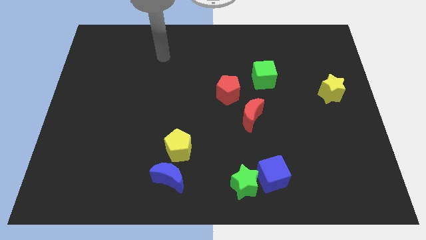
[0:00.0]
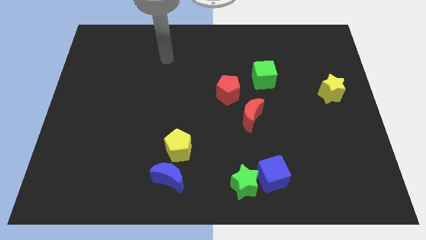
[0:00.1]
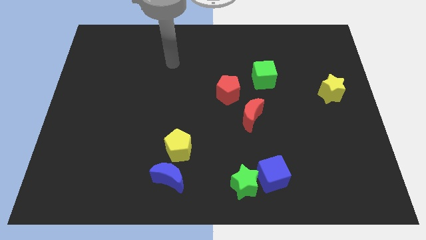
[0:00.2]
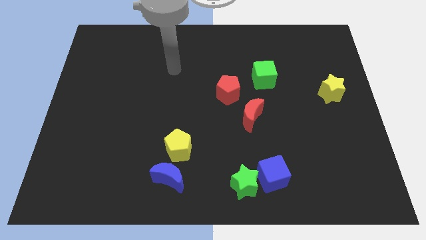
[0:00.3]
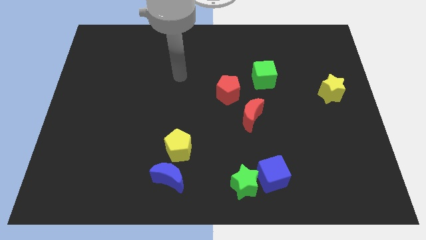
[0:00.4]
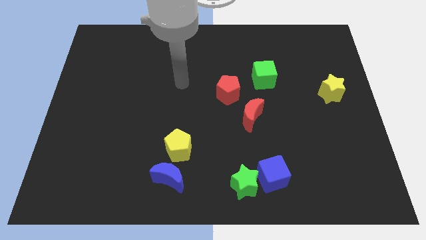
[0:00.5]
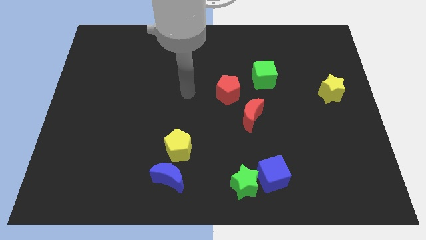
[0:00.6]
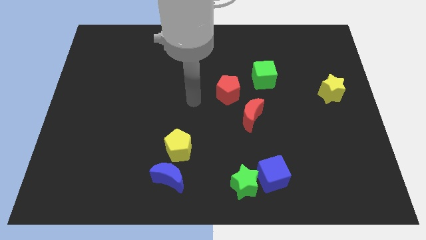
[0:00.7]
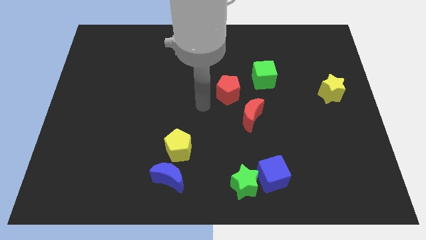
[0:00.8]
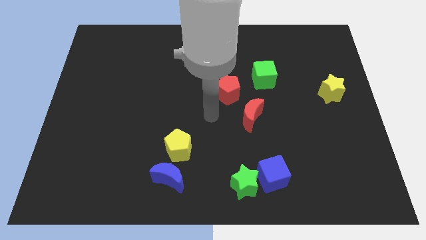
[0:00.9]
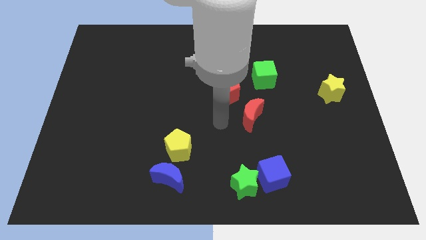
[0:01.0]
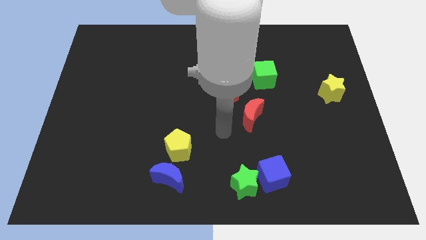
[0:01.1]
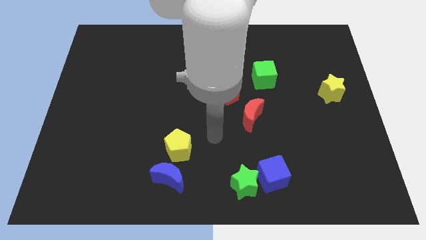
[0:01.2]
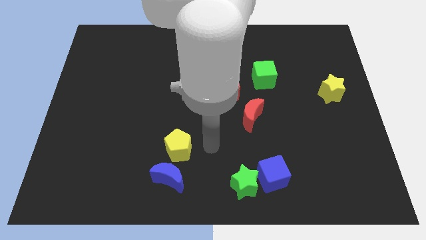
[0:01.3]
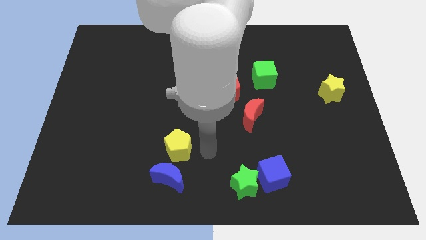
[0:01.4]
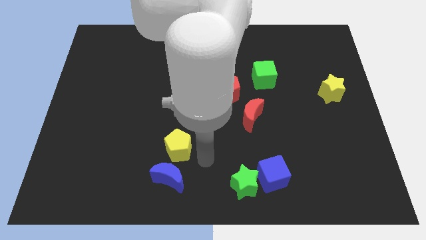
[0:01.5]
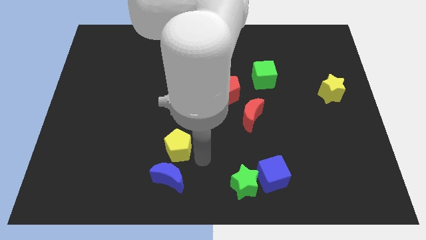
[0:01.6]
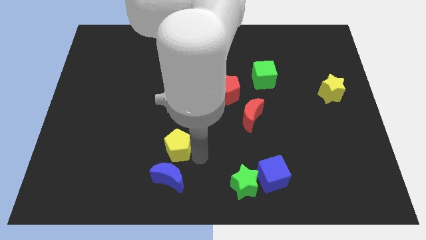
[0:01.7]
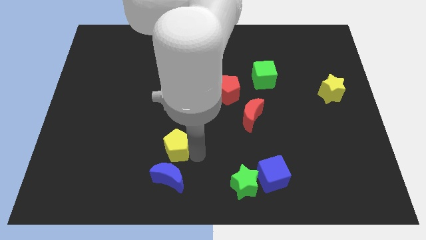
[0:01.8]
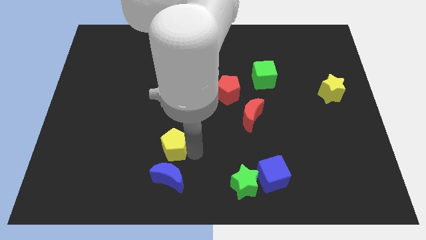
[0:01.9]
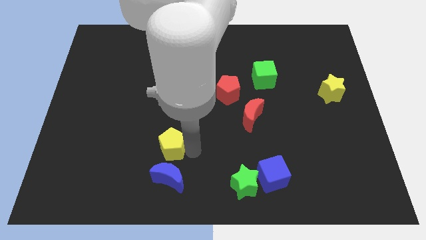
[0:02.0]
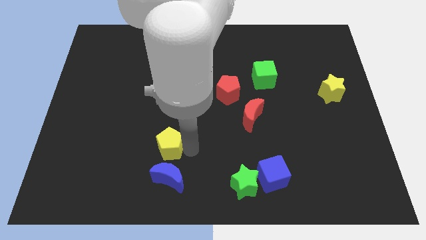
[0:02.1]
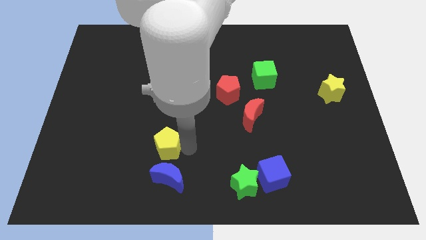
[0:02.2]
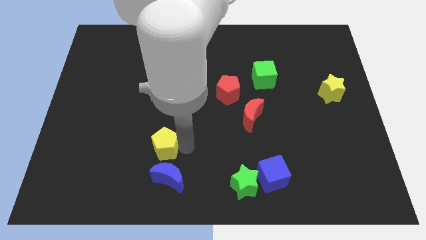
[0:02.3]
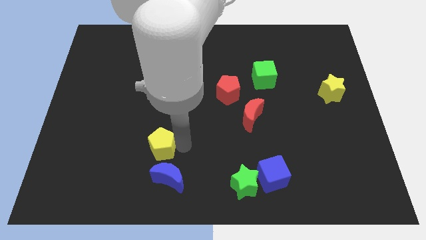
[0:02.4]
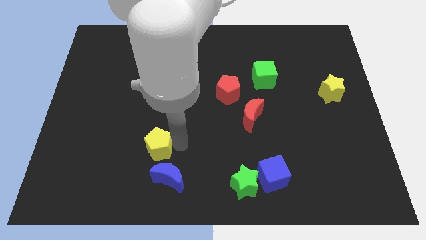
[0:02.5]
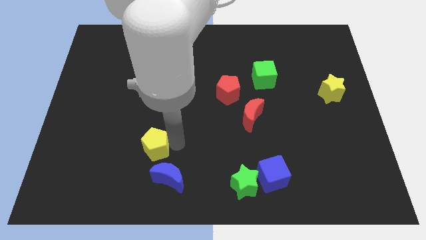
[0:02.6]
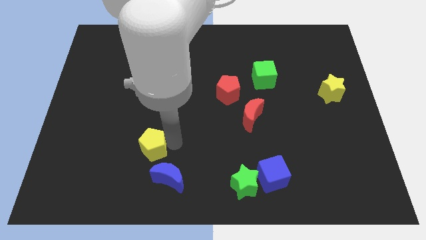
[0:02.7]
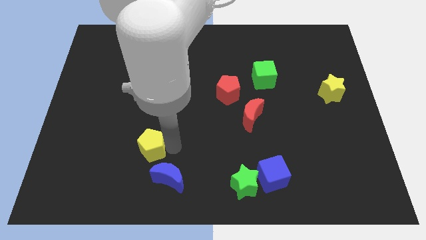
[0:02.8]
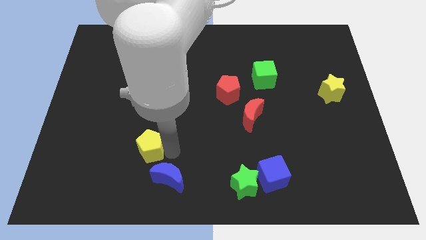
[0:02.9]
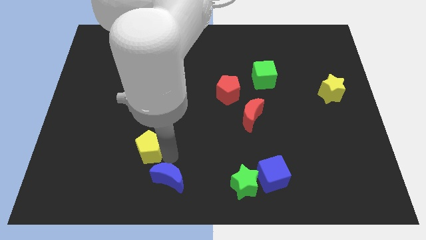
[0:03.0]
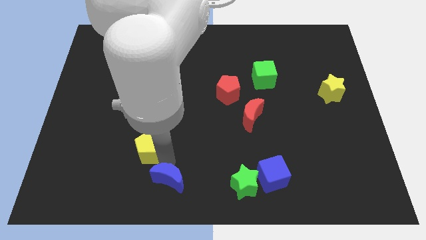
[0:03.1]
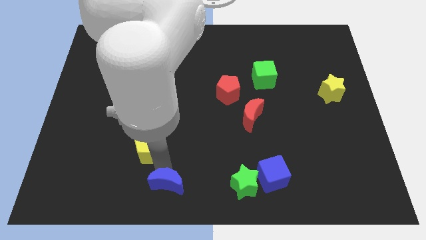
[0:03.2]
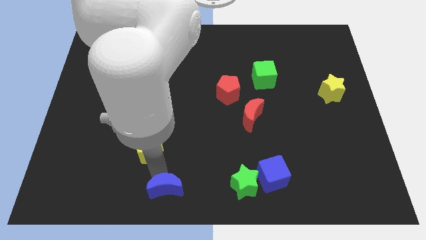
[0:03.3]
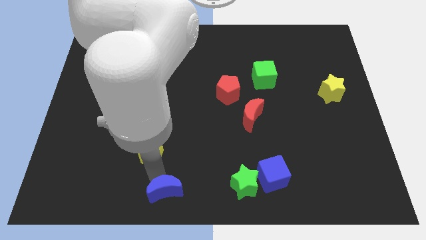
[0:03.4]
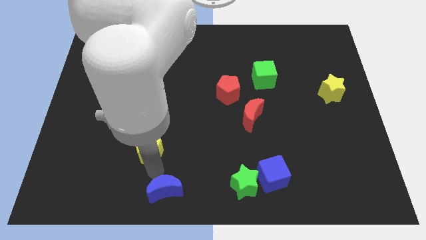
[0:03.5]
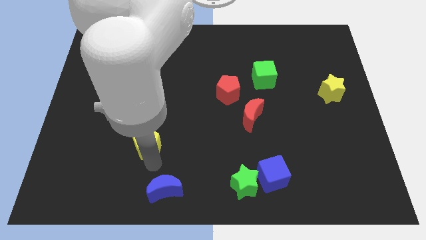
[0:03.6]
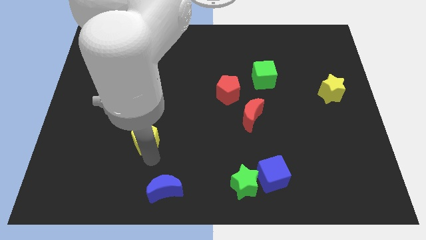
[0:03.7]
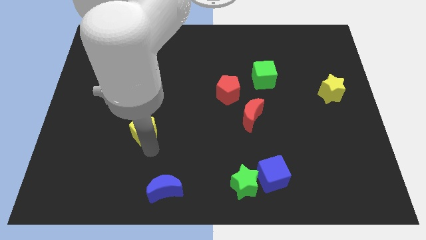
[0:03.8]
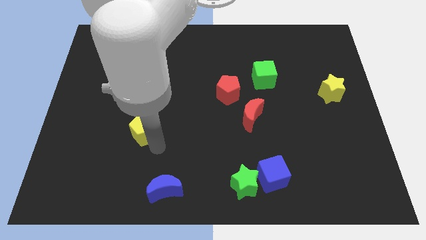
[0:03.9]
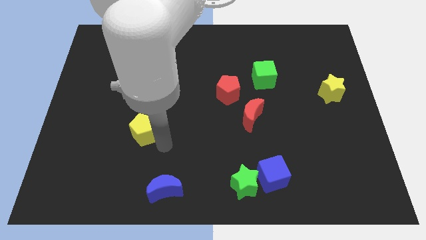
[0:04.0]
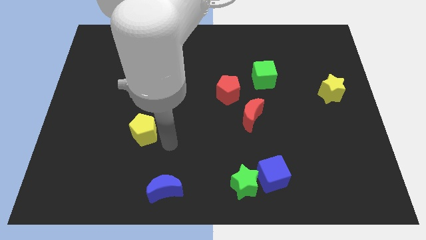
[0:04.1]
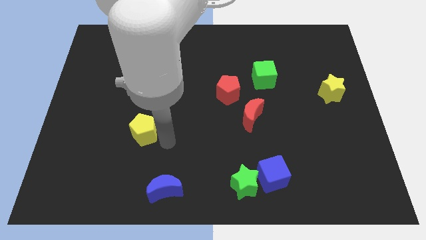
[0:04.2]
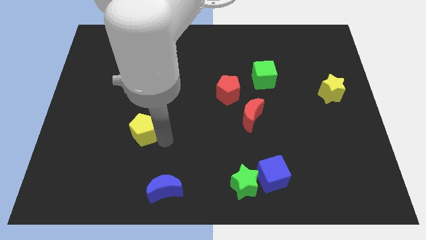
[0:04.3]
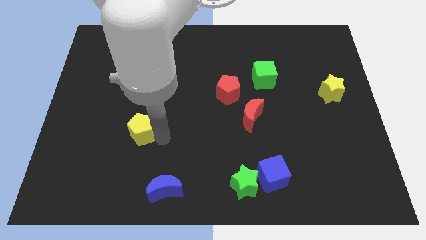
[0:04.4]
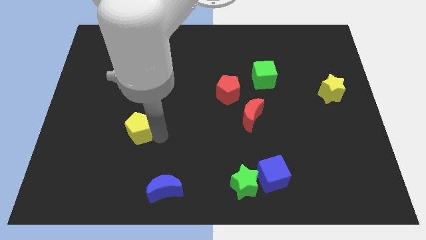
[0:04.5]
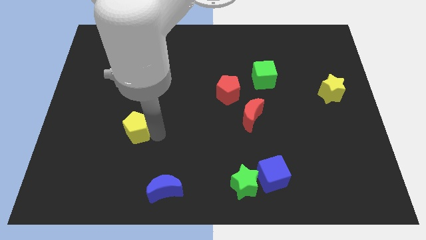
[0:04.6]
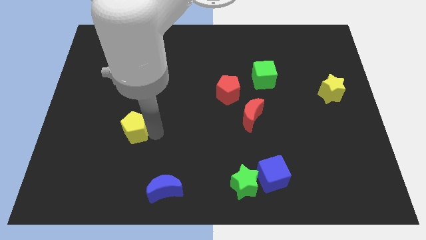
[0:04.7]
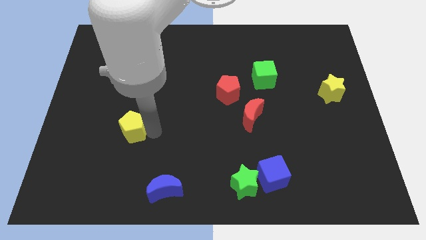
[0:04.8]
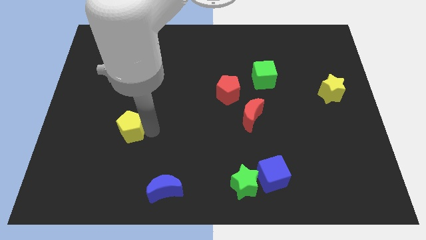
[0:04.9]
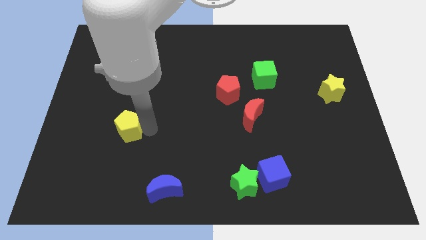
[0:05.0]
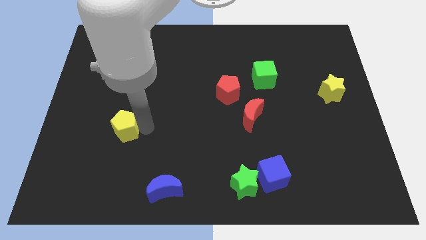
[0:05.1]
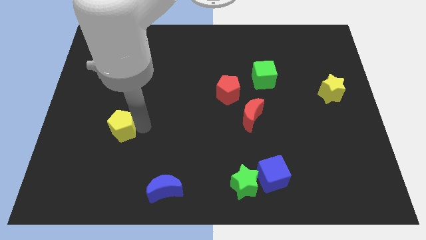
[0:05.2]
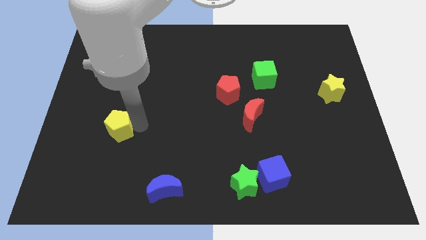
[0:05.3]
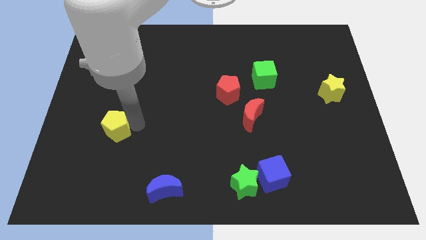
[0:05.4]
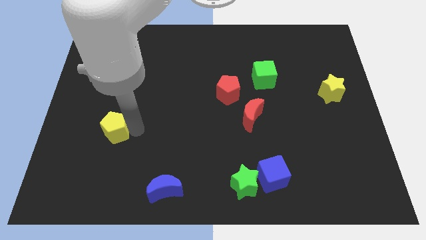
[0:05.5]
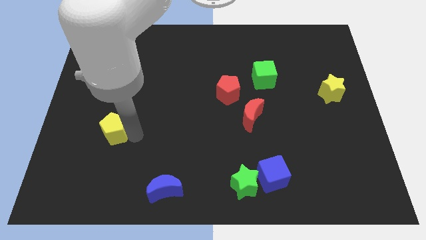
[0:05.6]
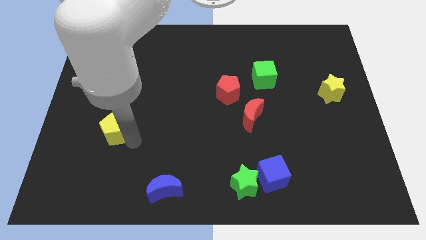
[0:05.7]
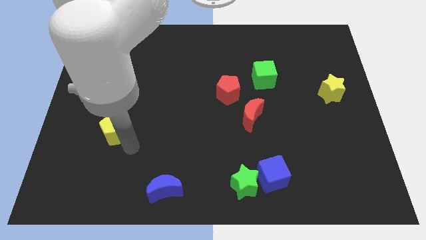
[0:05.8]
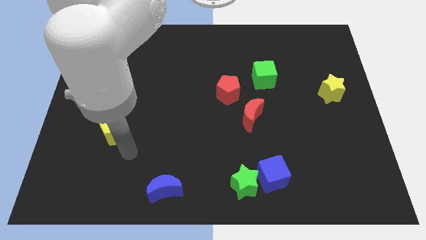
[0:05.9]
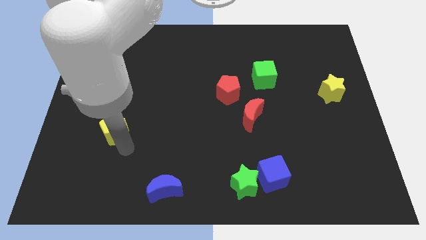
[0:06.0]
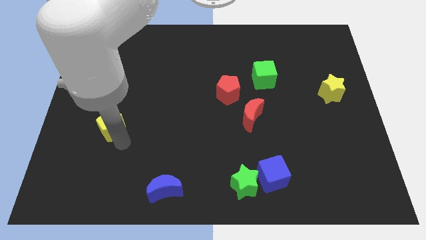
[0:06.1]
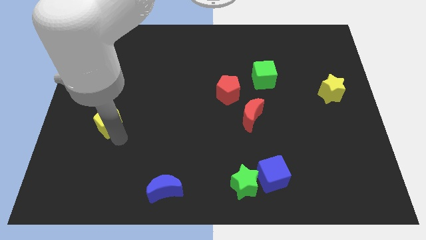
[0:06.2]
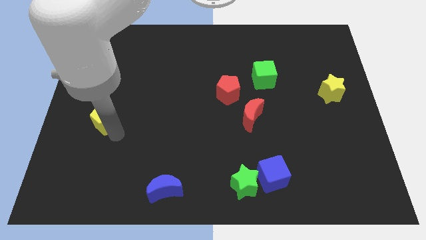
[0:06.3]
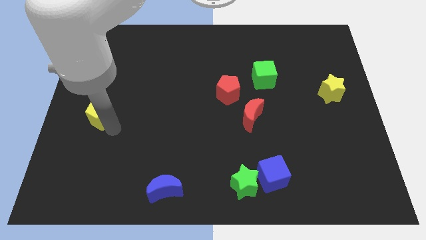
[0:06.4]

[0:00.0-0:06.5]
move the yellow pentagon to the left side

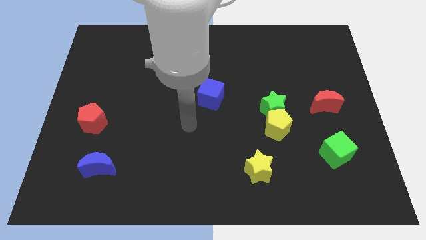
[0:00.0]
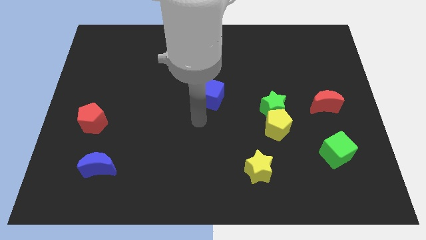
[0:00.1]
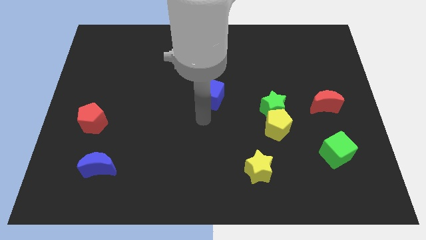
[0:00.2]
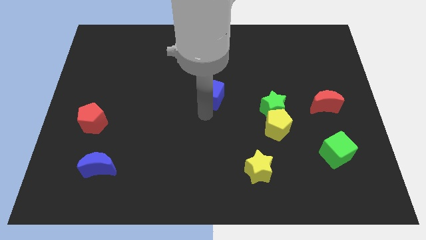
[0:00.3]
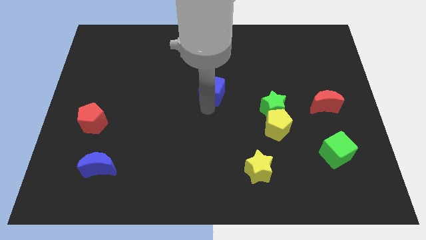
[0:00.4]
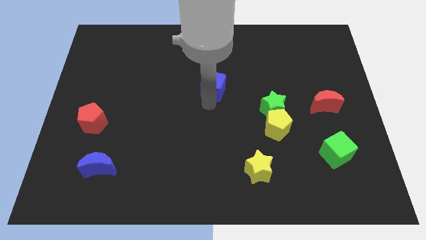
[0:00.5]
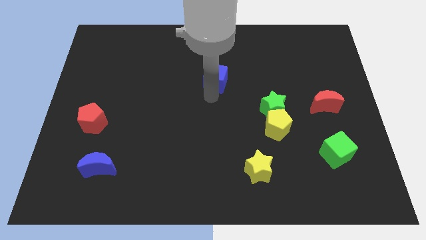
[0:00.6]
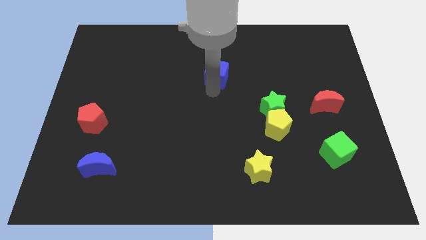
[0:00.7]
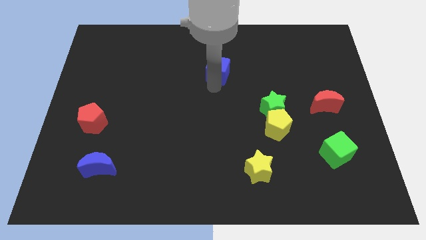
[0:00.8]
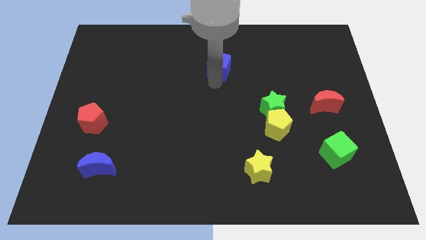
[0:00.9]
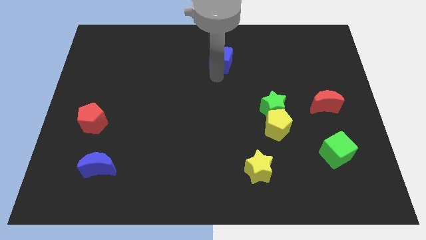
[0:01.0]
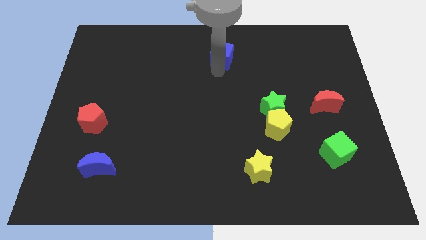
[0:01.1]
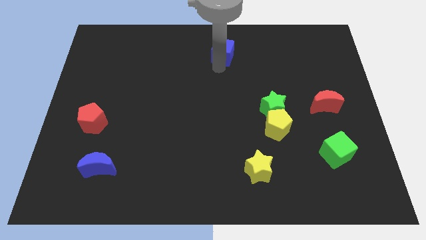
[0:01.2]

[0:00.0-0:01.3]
push the blue cube to the top
